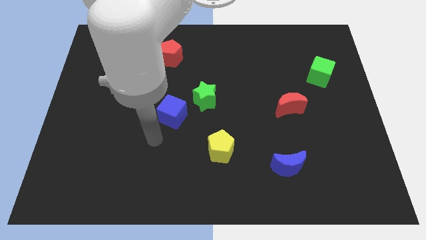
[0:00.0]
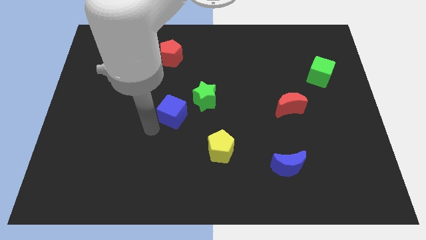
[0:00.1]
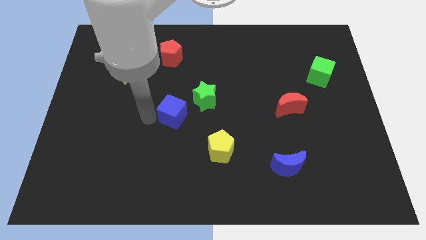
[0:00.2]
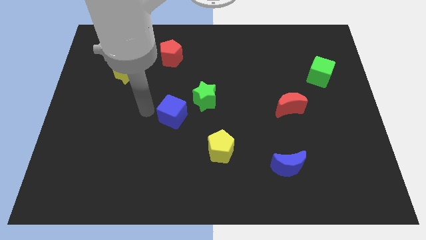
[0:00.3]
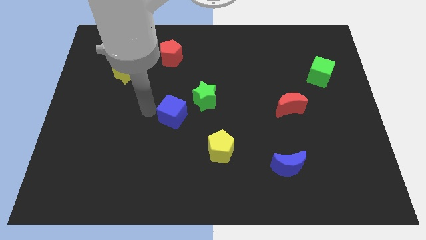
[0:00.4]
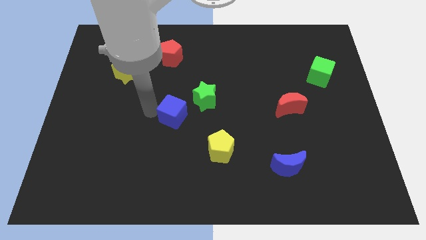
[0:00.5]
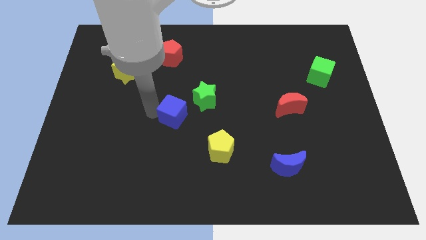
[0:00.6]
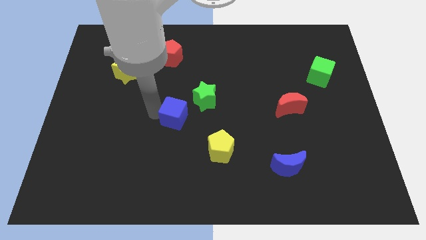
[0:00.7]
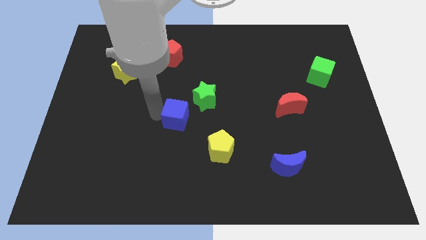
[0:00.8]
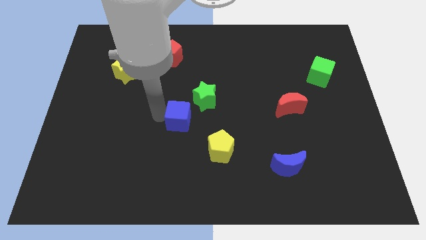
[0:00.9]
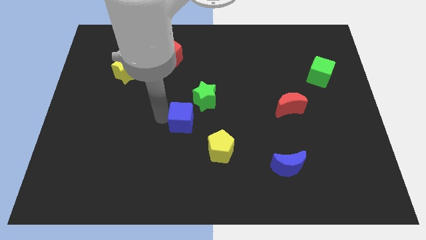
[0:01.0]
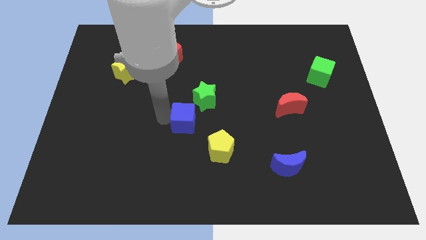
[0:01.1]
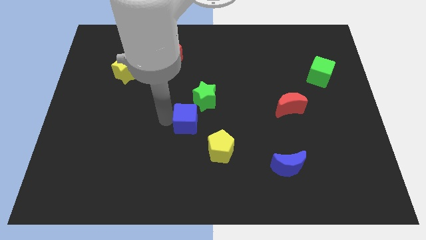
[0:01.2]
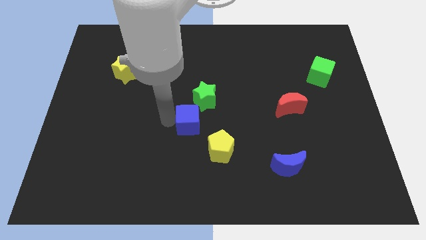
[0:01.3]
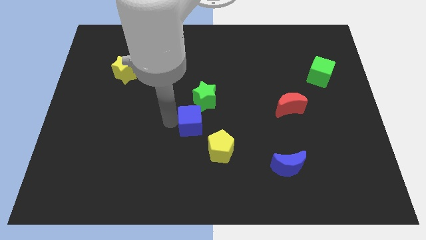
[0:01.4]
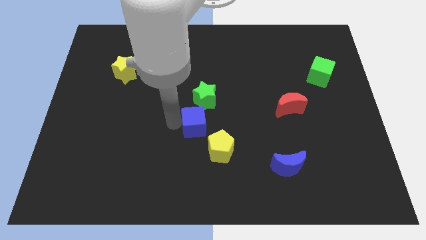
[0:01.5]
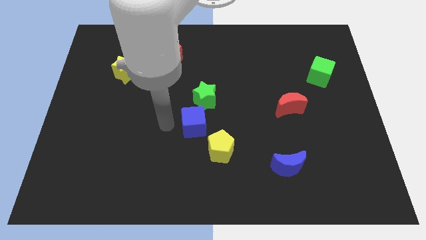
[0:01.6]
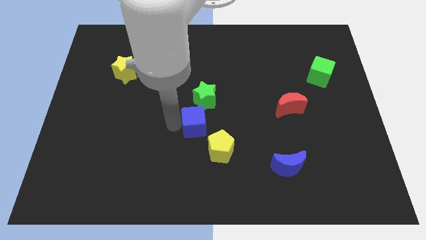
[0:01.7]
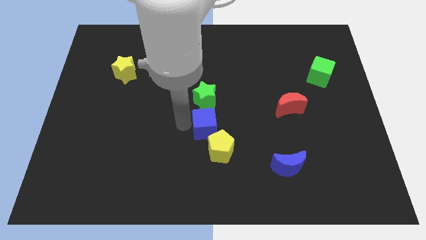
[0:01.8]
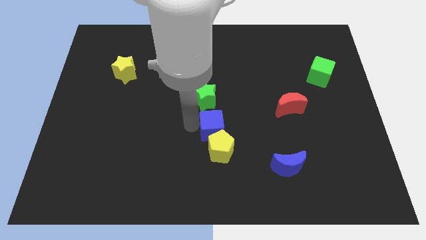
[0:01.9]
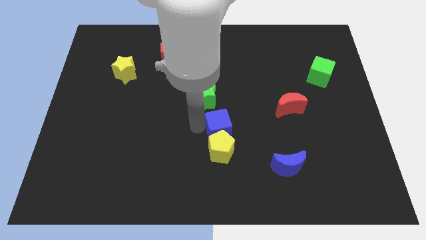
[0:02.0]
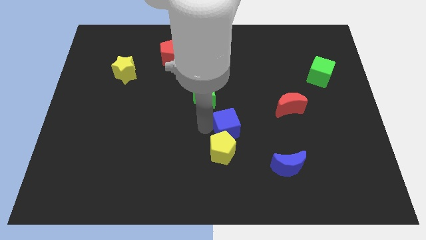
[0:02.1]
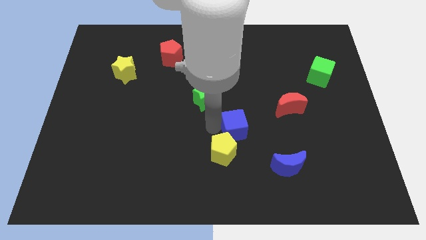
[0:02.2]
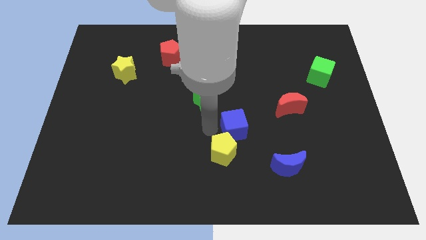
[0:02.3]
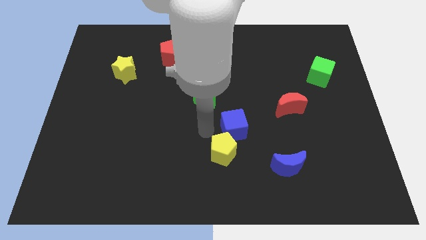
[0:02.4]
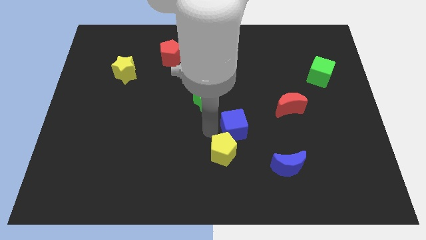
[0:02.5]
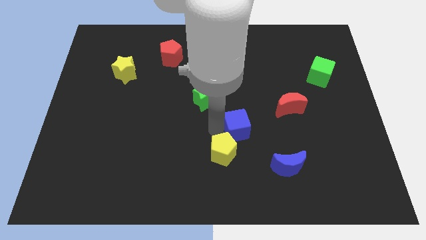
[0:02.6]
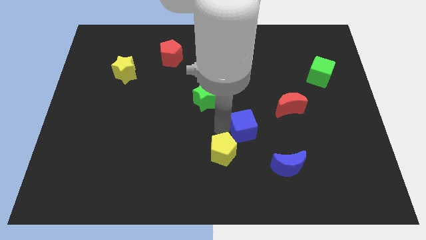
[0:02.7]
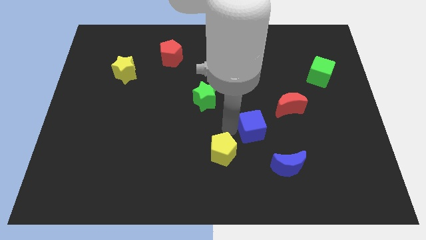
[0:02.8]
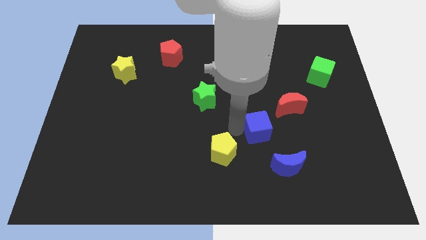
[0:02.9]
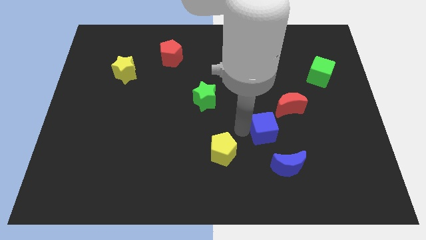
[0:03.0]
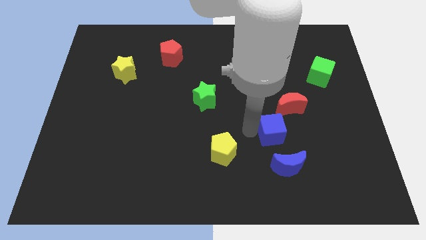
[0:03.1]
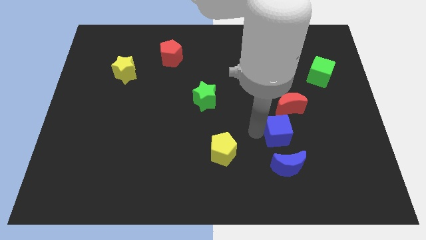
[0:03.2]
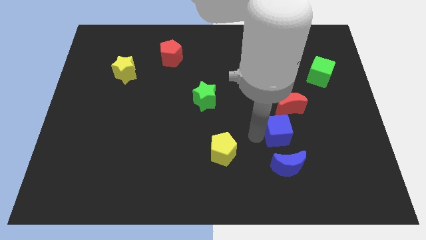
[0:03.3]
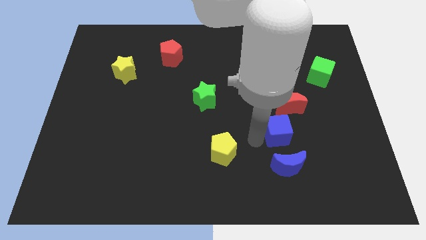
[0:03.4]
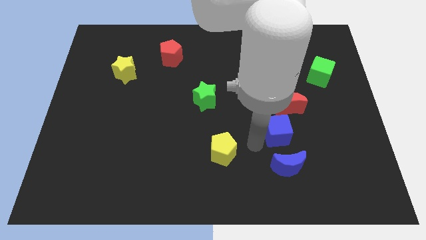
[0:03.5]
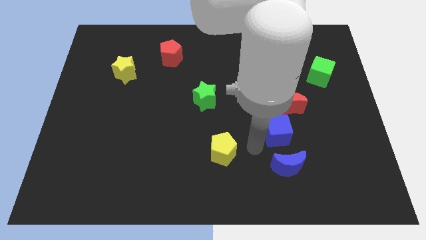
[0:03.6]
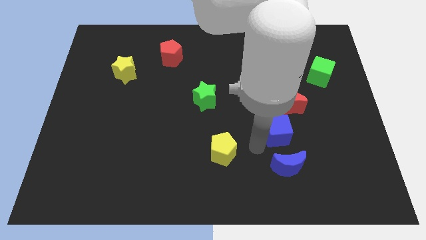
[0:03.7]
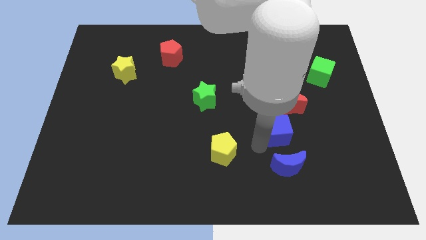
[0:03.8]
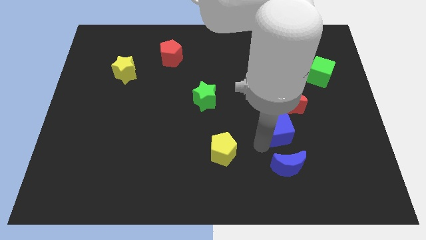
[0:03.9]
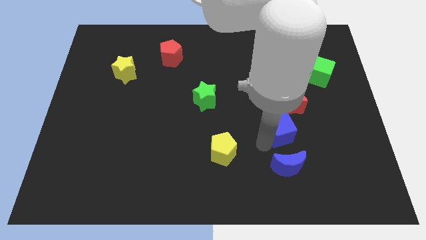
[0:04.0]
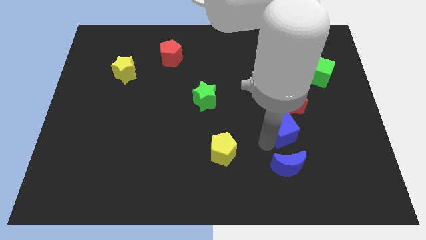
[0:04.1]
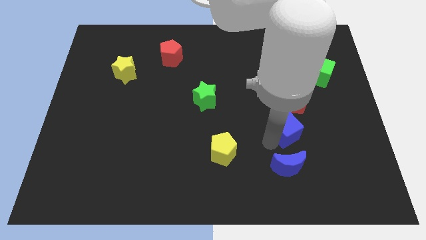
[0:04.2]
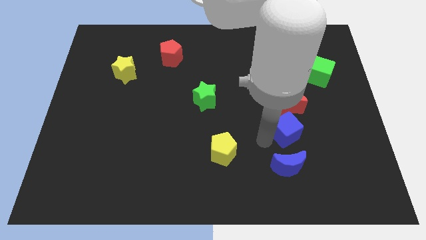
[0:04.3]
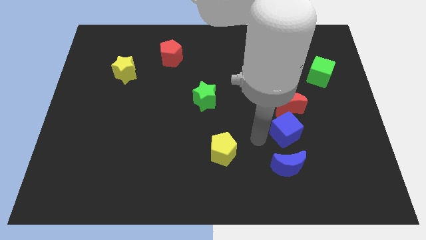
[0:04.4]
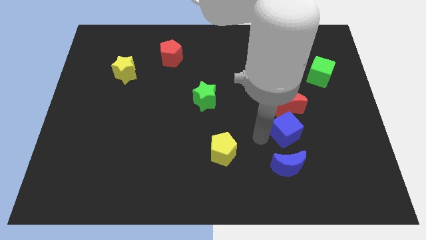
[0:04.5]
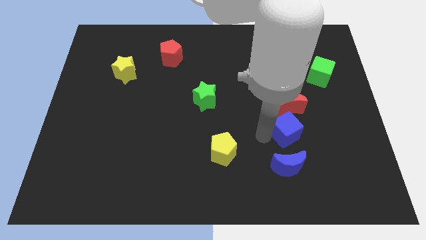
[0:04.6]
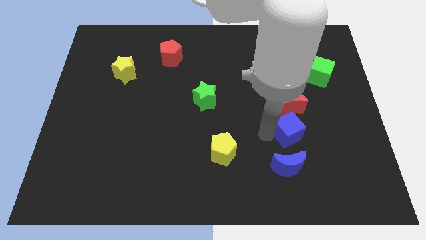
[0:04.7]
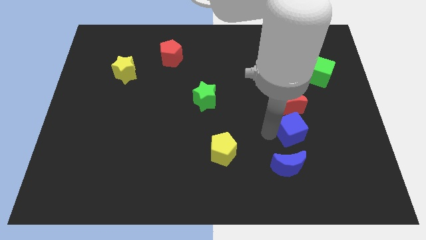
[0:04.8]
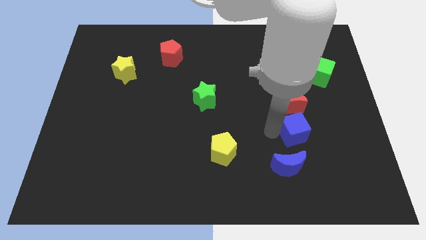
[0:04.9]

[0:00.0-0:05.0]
slide the blue cube diagonally down and to the right of the red moon

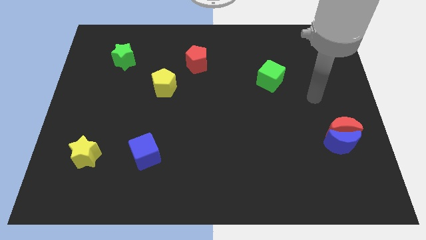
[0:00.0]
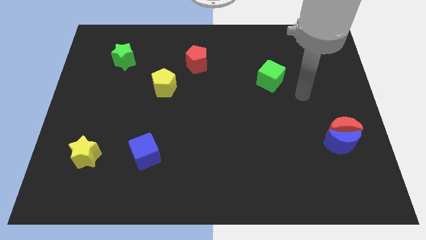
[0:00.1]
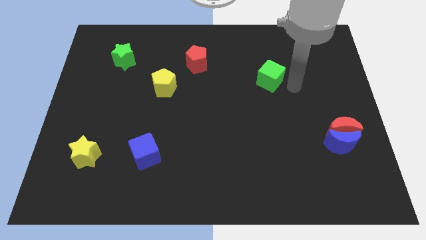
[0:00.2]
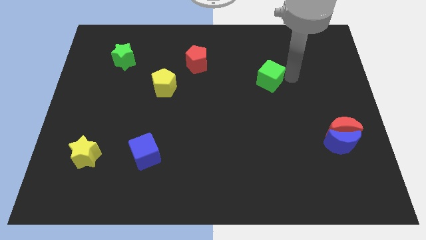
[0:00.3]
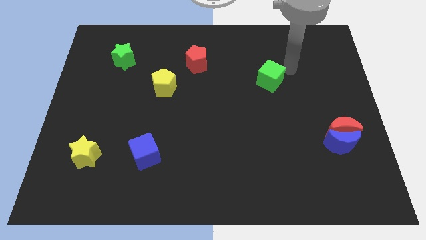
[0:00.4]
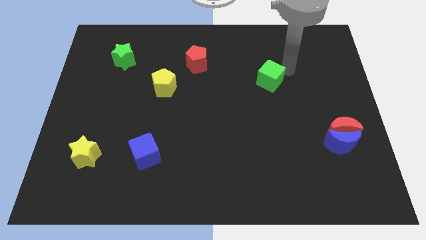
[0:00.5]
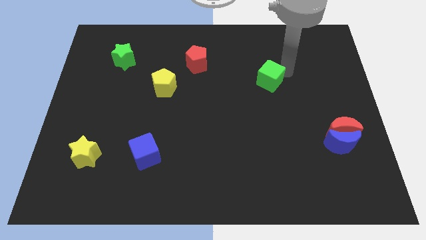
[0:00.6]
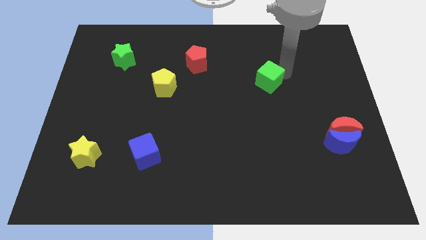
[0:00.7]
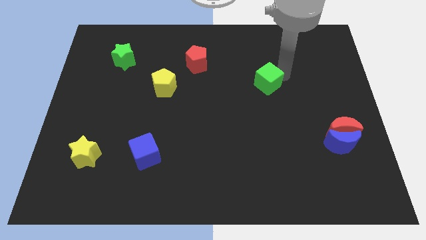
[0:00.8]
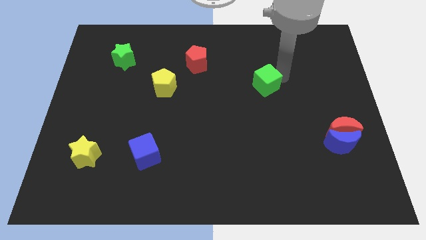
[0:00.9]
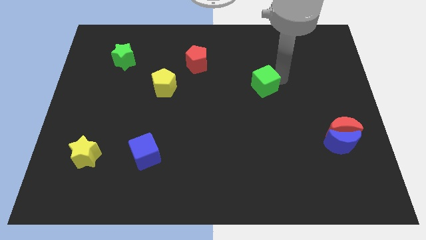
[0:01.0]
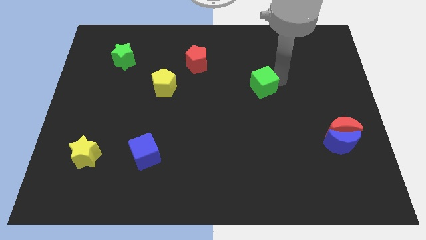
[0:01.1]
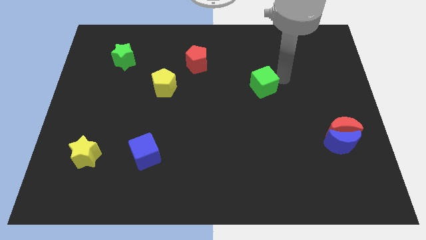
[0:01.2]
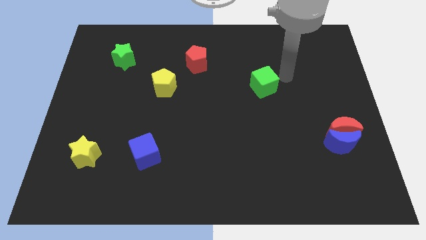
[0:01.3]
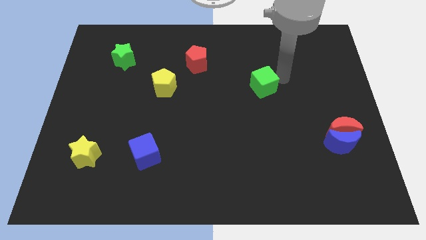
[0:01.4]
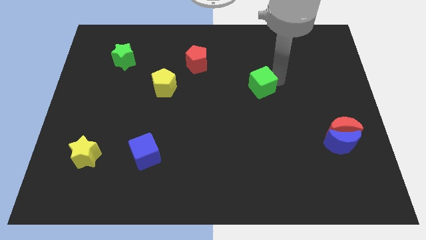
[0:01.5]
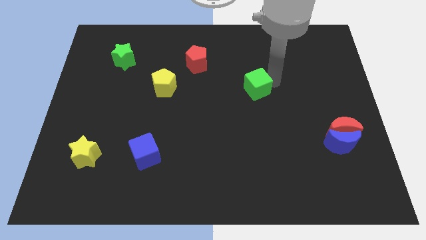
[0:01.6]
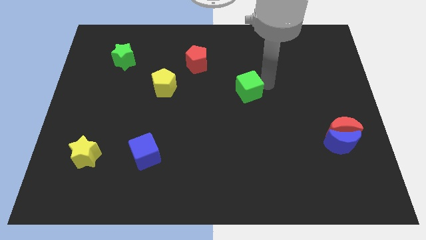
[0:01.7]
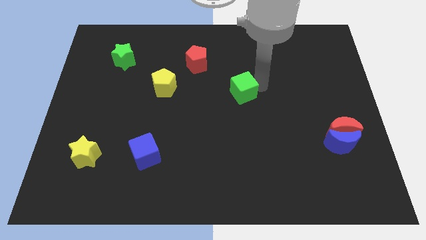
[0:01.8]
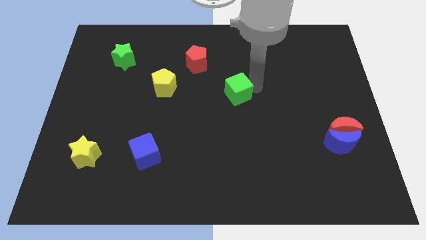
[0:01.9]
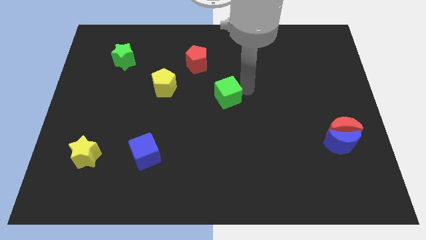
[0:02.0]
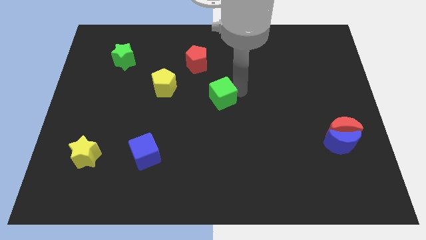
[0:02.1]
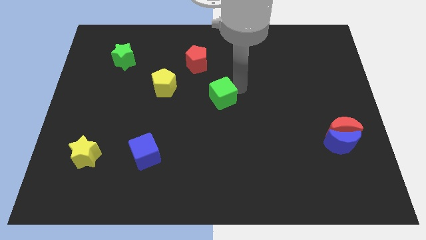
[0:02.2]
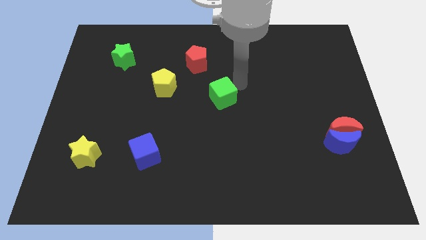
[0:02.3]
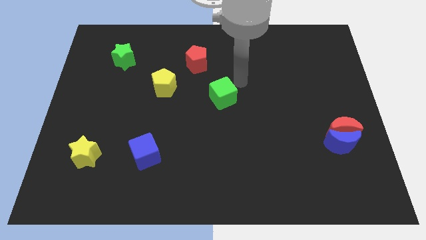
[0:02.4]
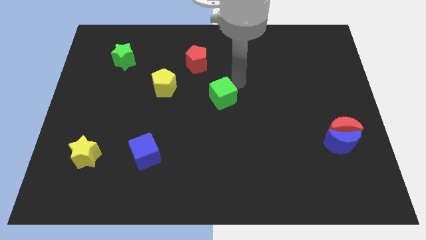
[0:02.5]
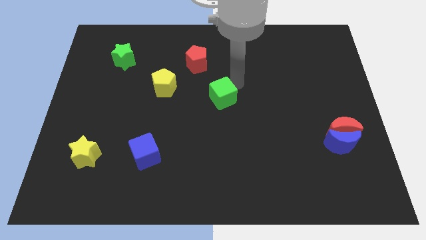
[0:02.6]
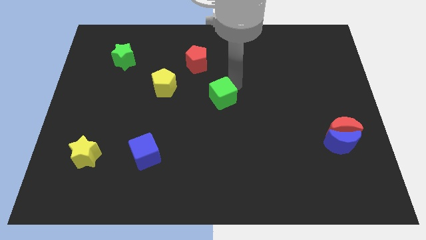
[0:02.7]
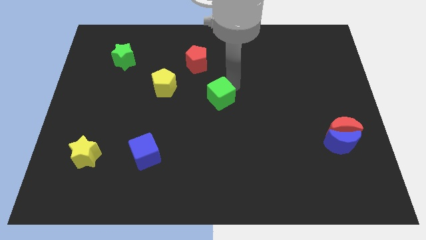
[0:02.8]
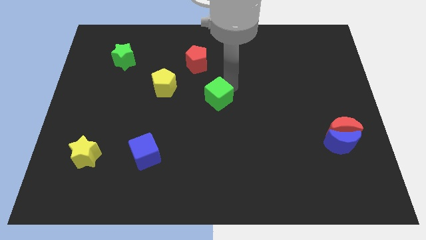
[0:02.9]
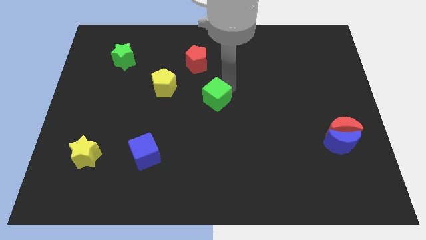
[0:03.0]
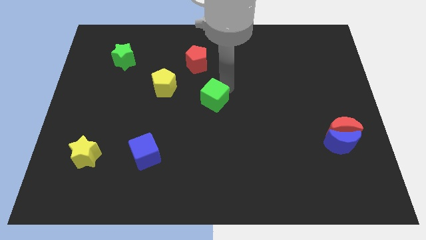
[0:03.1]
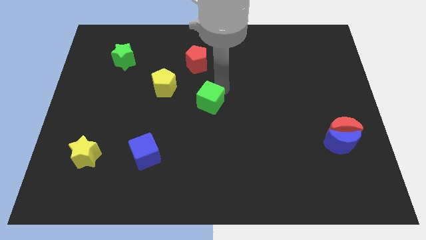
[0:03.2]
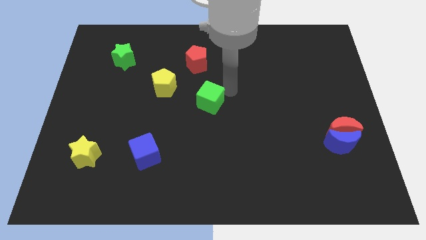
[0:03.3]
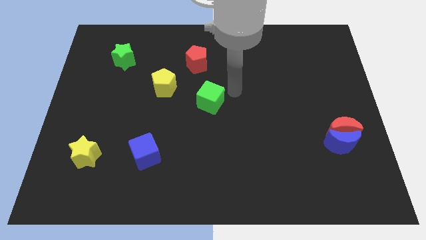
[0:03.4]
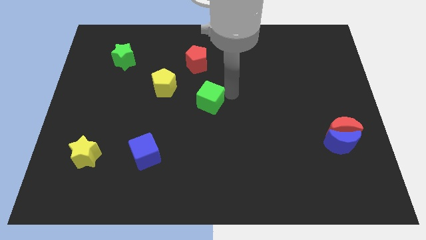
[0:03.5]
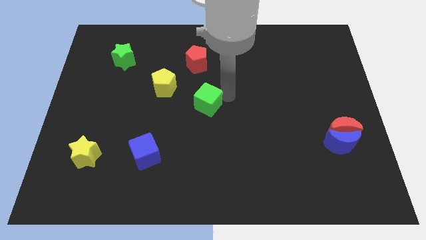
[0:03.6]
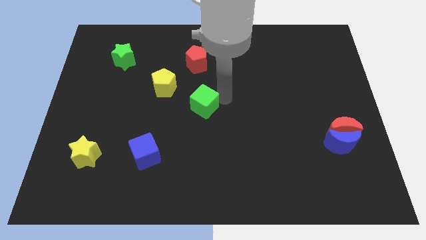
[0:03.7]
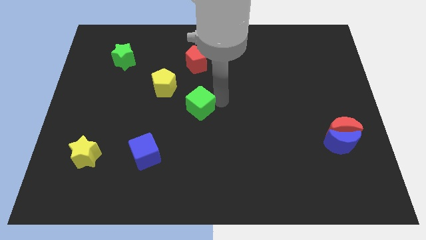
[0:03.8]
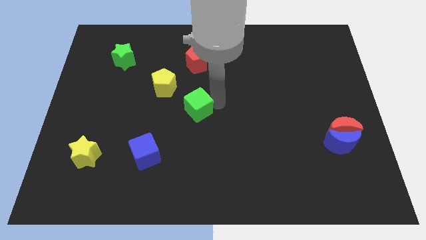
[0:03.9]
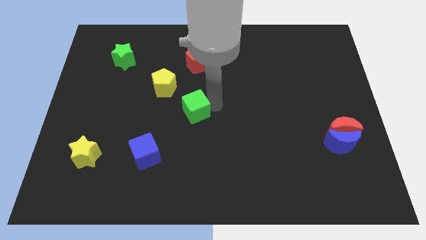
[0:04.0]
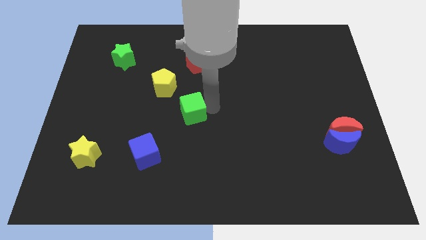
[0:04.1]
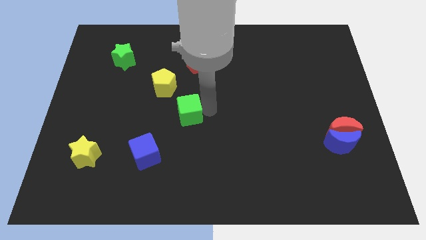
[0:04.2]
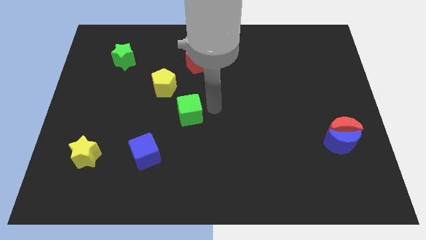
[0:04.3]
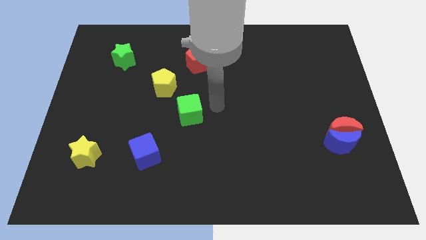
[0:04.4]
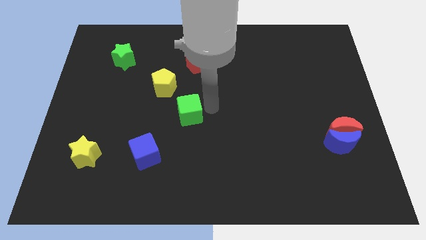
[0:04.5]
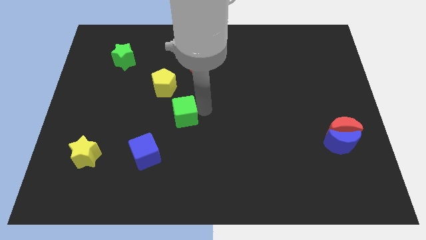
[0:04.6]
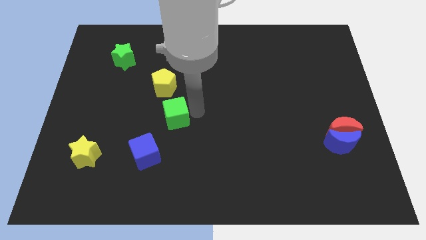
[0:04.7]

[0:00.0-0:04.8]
push the green cube below the yellow pentagon
